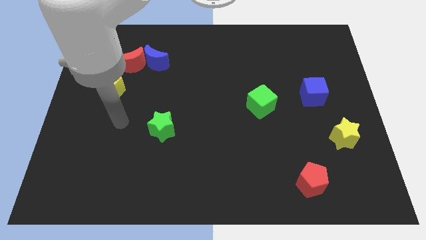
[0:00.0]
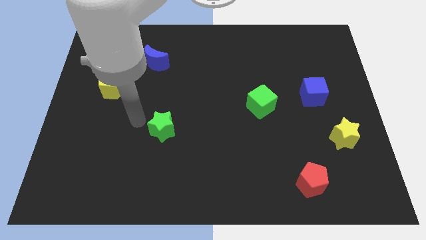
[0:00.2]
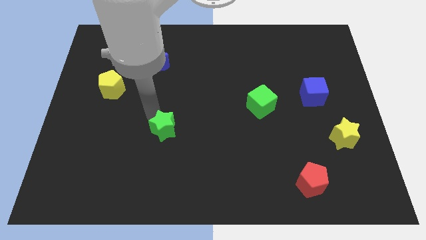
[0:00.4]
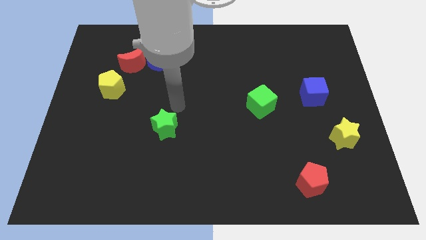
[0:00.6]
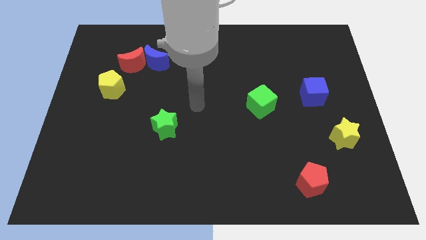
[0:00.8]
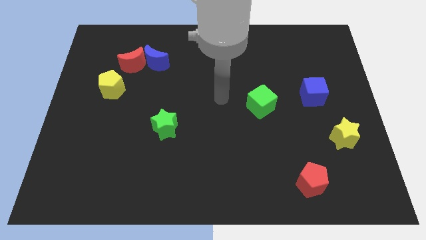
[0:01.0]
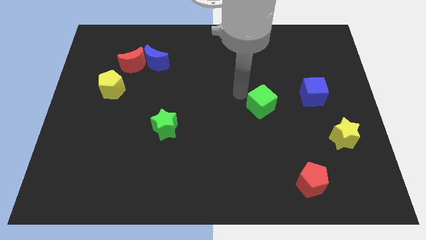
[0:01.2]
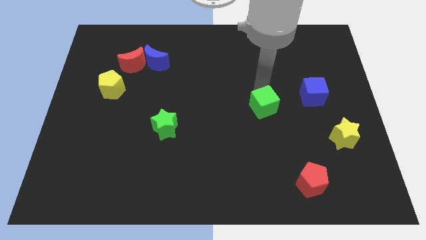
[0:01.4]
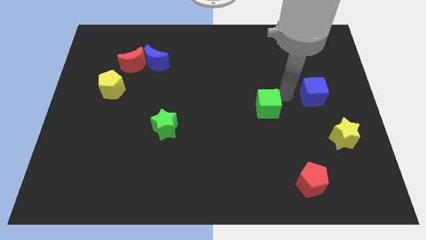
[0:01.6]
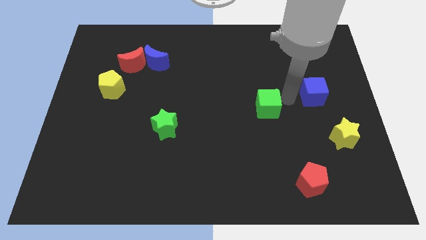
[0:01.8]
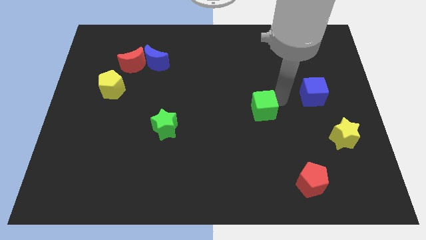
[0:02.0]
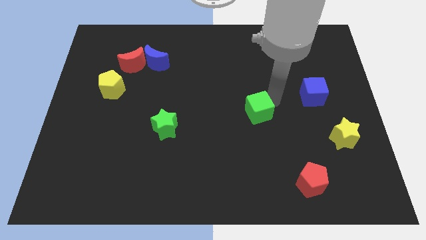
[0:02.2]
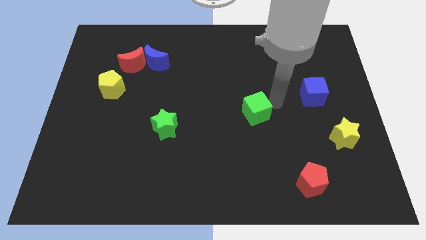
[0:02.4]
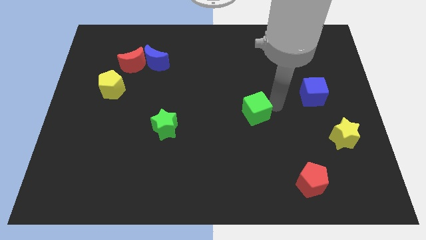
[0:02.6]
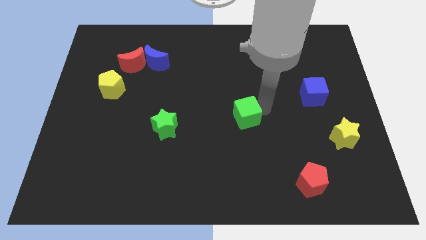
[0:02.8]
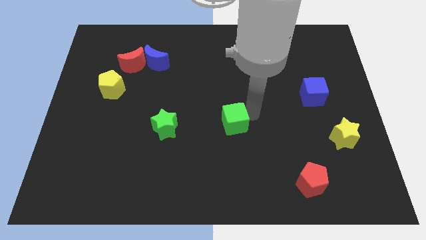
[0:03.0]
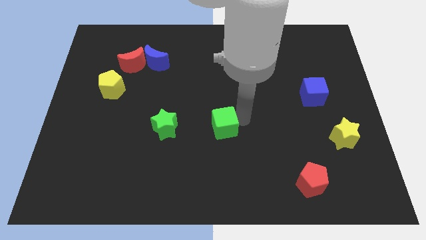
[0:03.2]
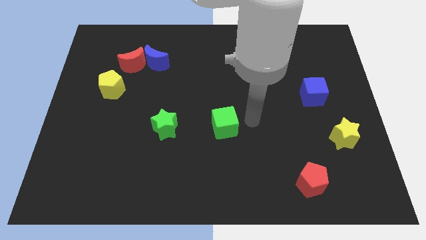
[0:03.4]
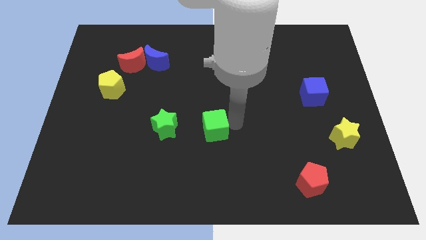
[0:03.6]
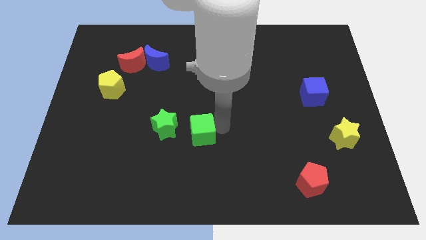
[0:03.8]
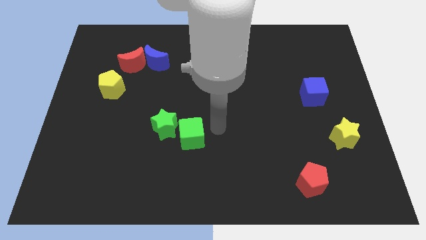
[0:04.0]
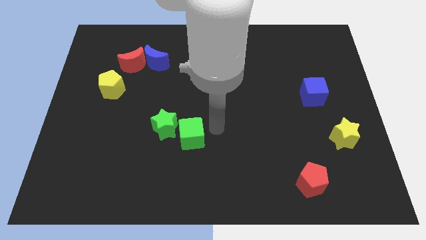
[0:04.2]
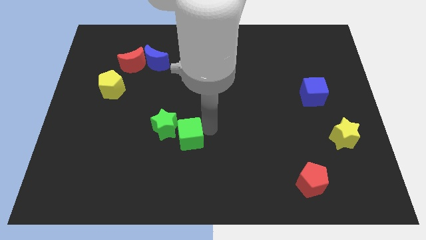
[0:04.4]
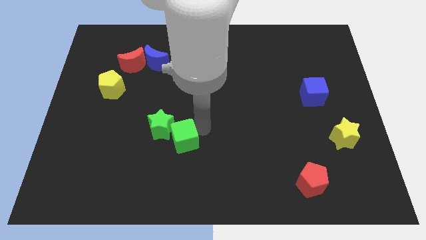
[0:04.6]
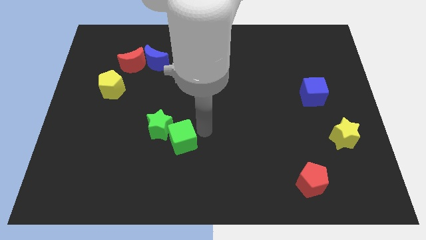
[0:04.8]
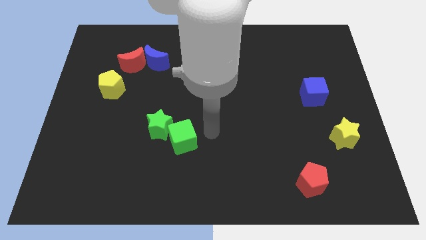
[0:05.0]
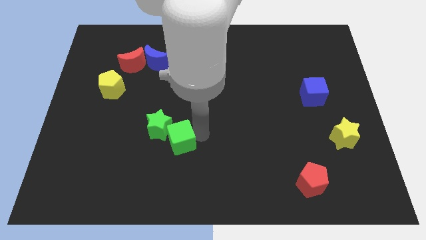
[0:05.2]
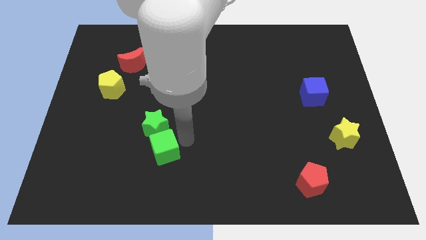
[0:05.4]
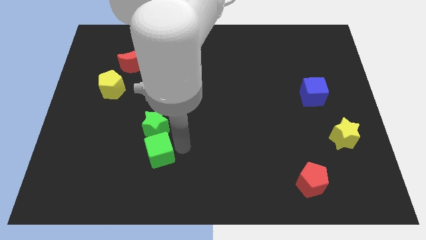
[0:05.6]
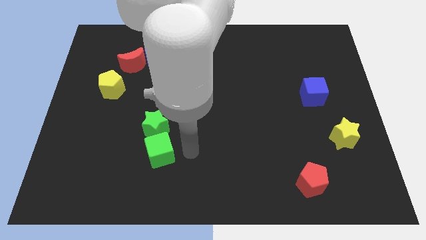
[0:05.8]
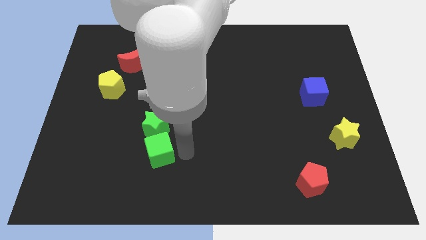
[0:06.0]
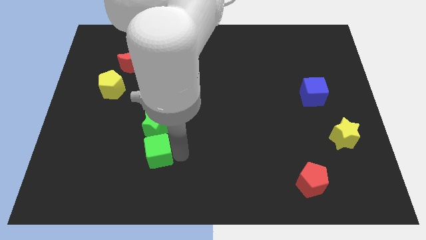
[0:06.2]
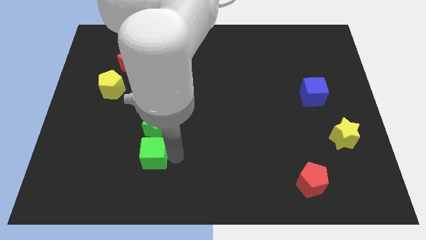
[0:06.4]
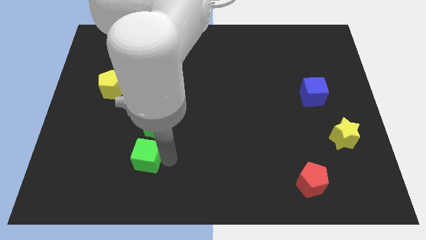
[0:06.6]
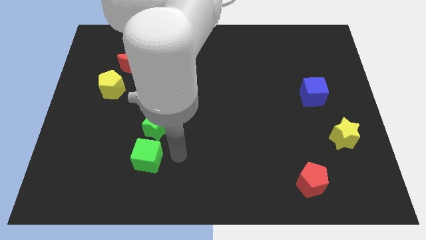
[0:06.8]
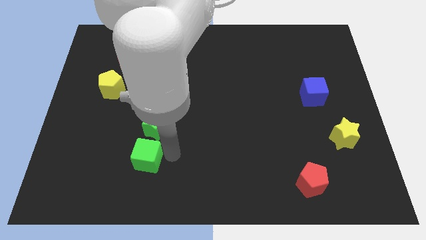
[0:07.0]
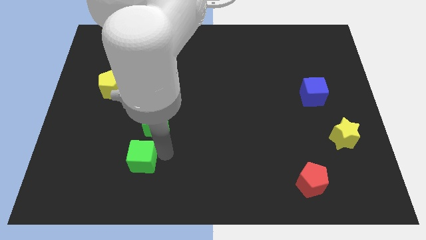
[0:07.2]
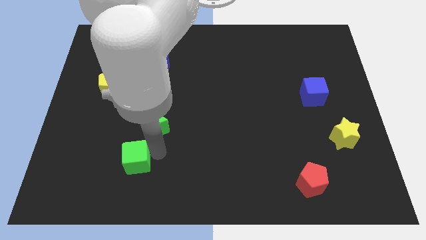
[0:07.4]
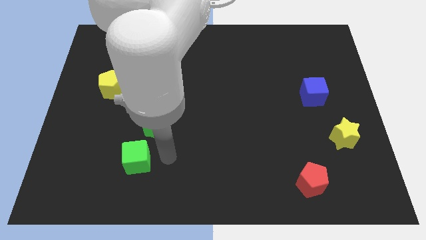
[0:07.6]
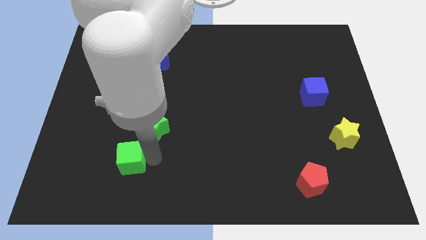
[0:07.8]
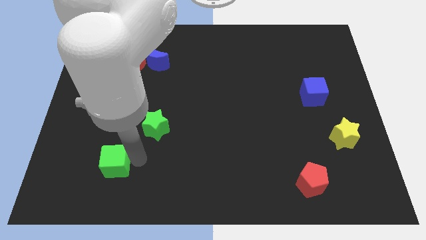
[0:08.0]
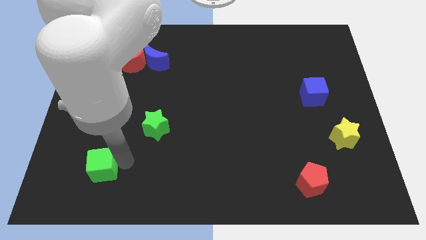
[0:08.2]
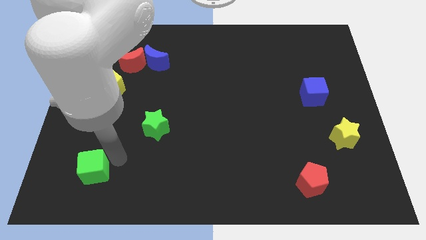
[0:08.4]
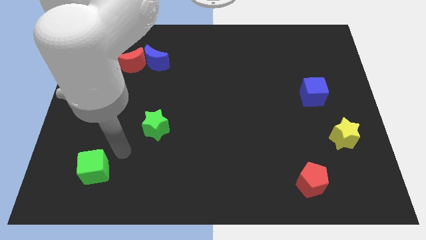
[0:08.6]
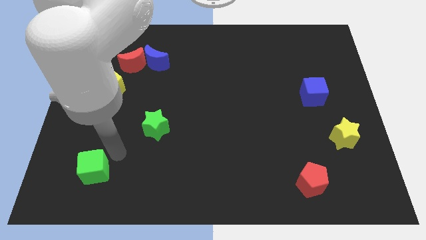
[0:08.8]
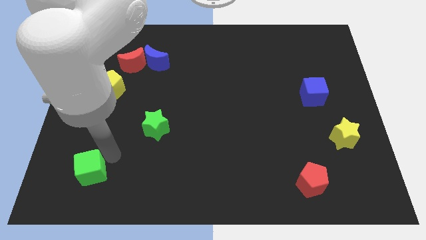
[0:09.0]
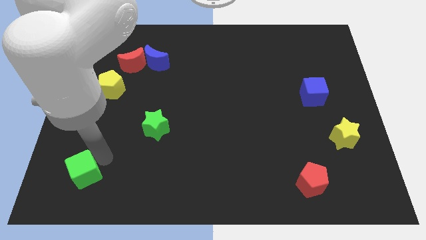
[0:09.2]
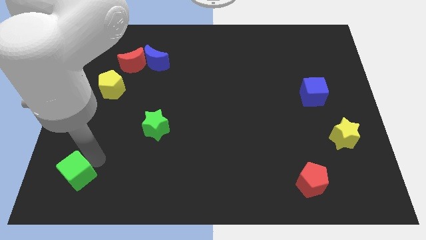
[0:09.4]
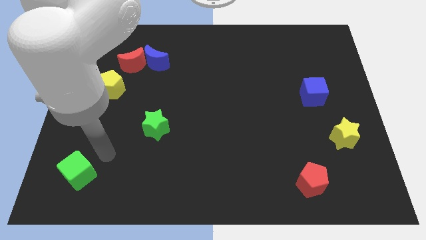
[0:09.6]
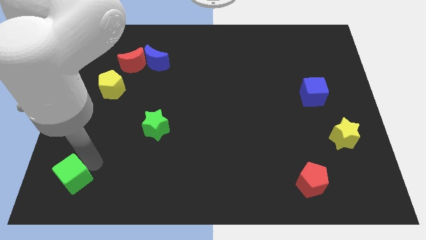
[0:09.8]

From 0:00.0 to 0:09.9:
push the green cube to the bottom left of the board
